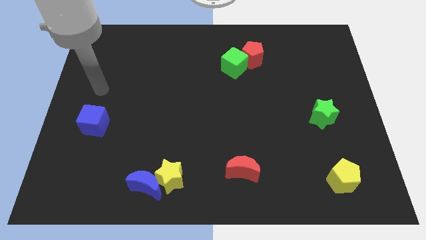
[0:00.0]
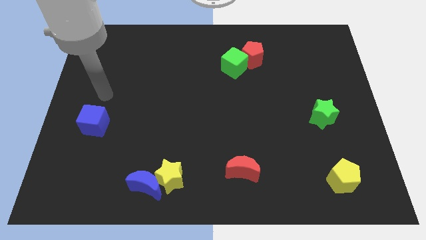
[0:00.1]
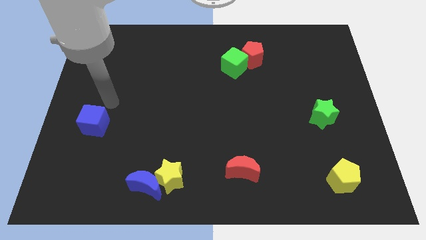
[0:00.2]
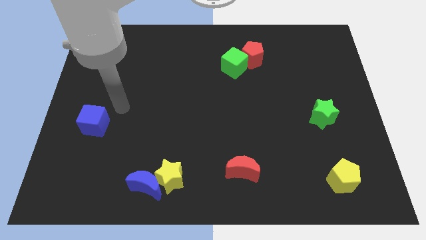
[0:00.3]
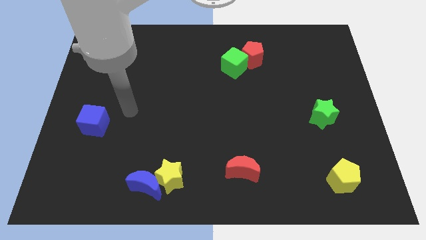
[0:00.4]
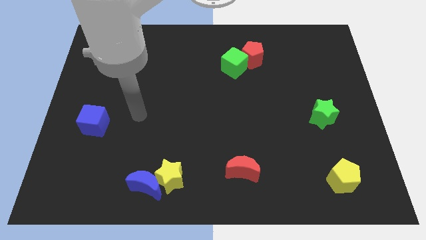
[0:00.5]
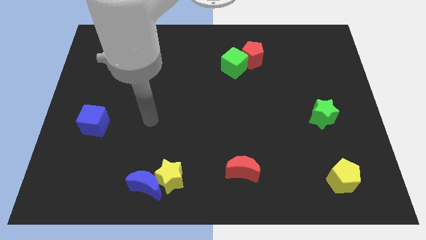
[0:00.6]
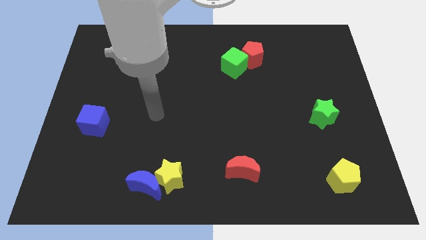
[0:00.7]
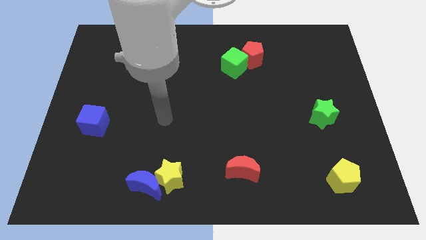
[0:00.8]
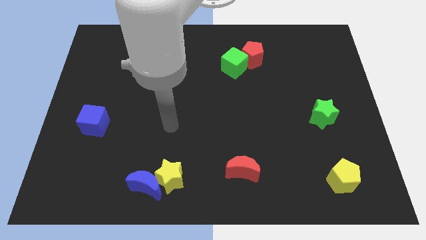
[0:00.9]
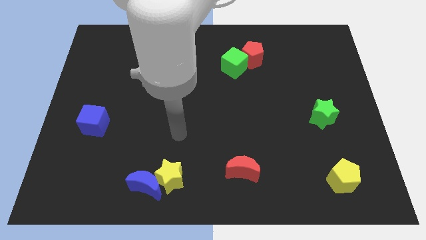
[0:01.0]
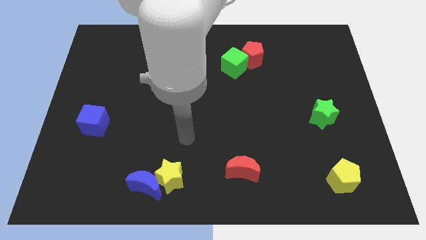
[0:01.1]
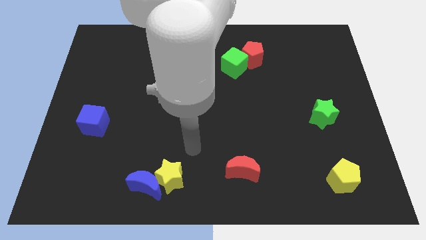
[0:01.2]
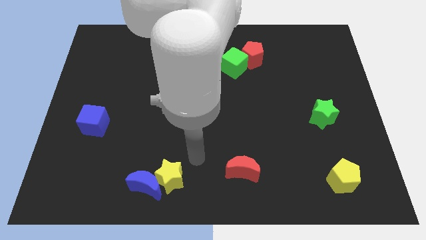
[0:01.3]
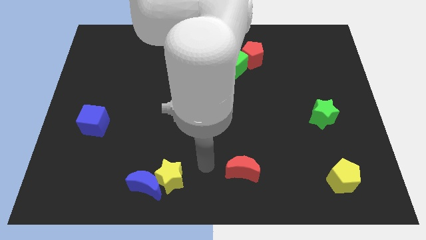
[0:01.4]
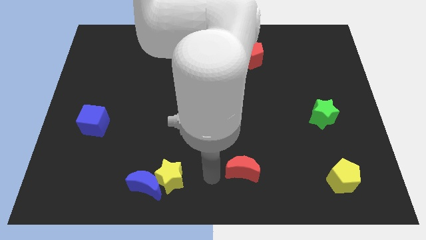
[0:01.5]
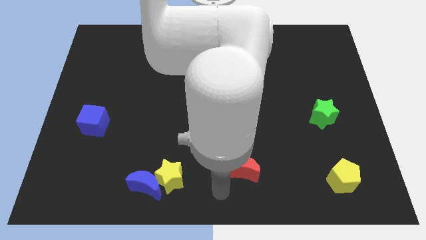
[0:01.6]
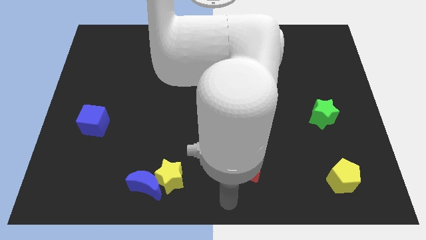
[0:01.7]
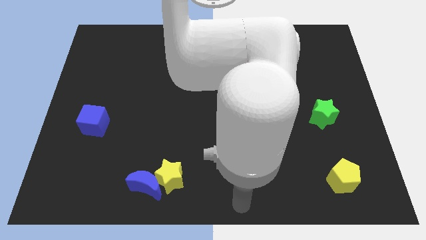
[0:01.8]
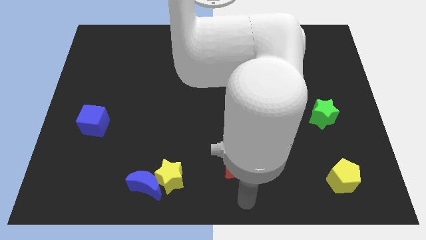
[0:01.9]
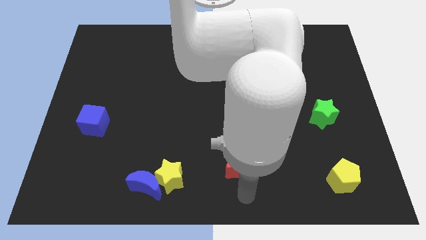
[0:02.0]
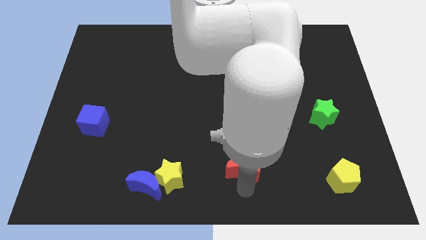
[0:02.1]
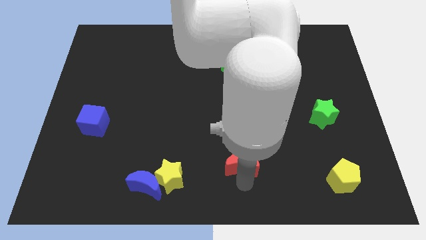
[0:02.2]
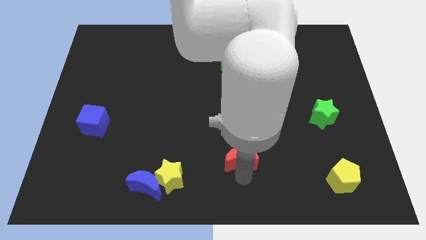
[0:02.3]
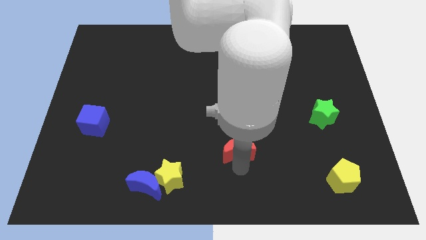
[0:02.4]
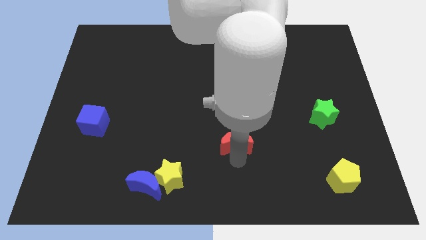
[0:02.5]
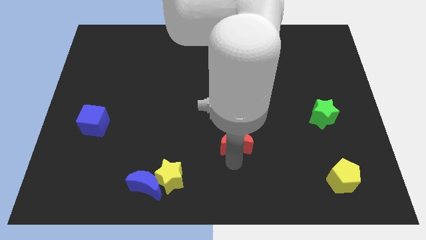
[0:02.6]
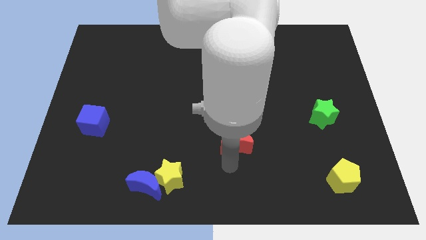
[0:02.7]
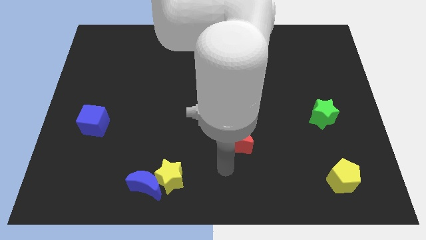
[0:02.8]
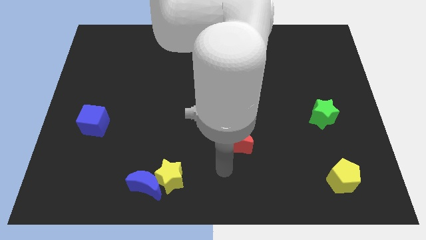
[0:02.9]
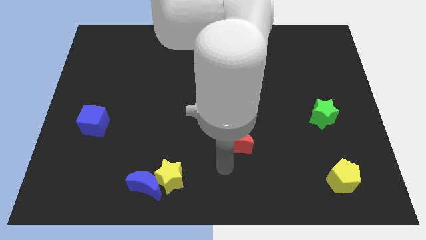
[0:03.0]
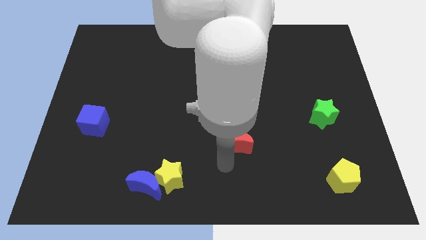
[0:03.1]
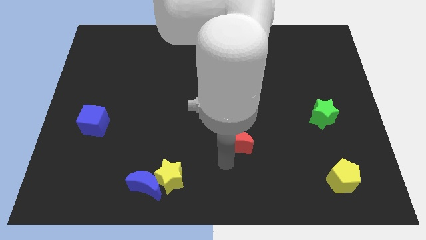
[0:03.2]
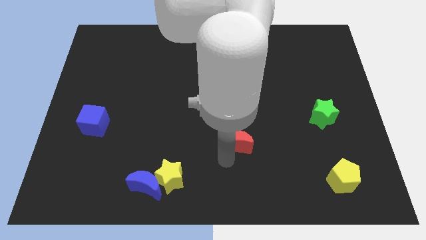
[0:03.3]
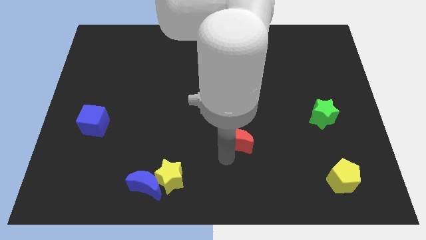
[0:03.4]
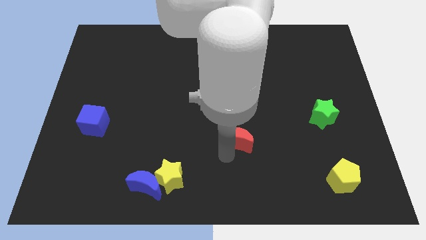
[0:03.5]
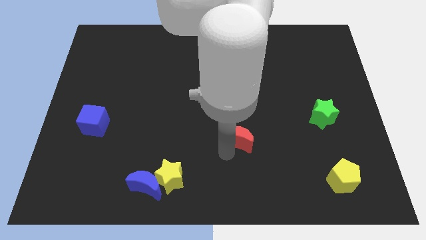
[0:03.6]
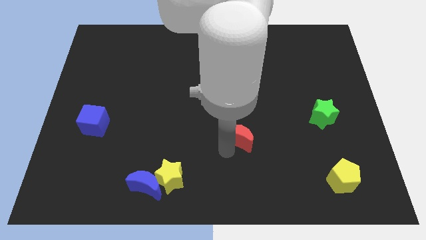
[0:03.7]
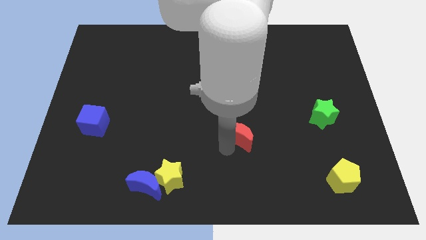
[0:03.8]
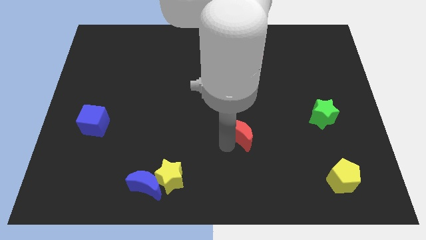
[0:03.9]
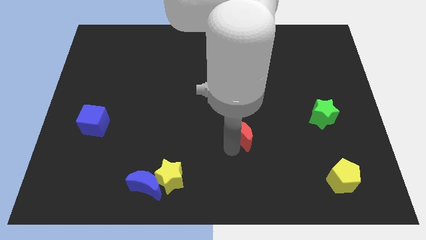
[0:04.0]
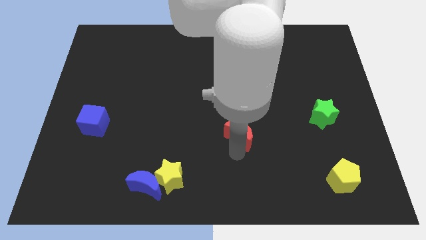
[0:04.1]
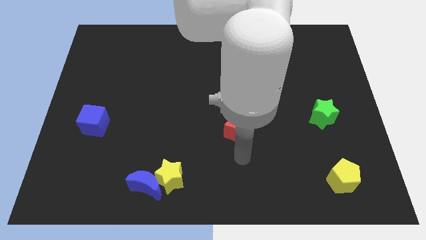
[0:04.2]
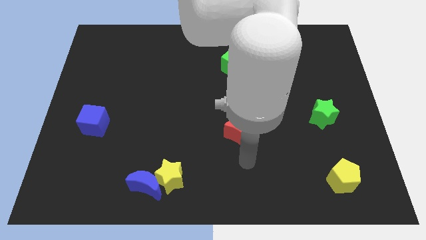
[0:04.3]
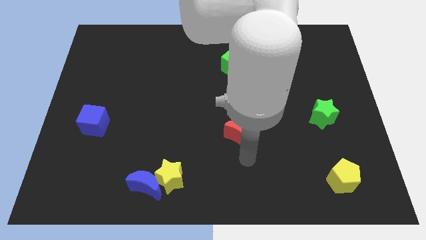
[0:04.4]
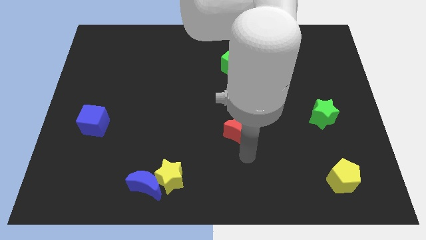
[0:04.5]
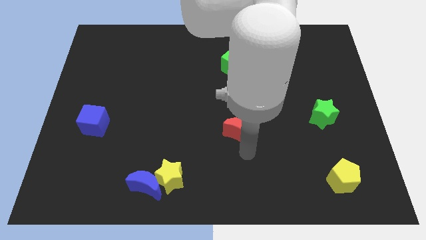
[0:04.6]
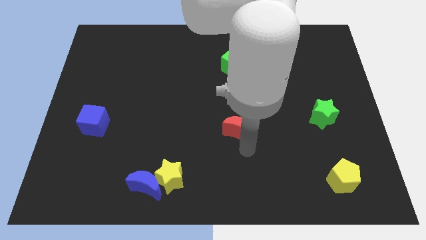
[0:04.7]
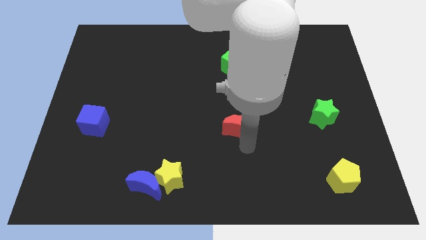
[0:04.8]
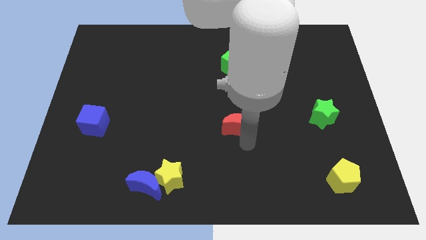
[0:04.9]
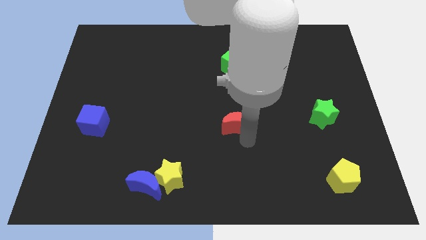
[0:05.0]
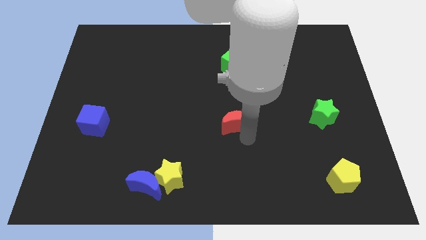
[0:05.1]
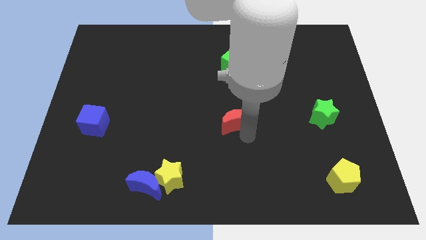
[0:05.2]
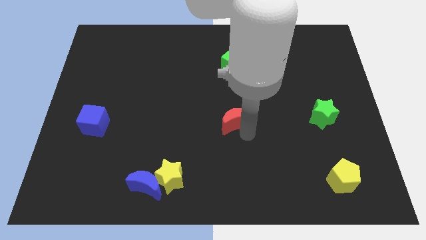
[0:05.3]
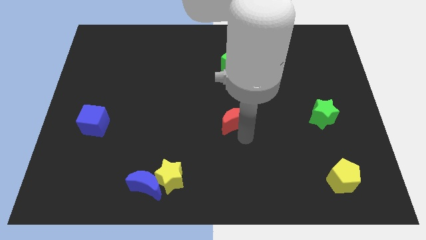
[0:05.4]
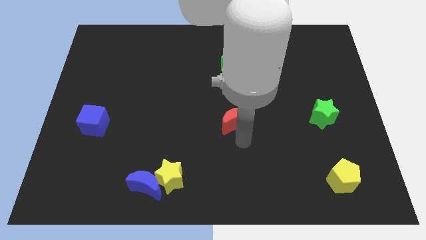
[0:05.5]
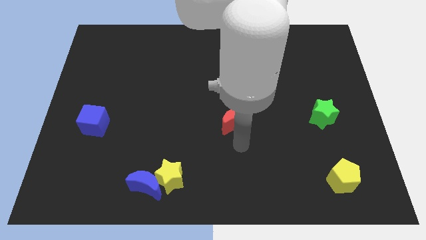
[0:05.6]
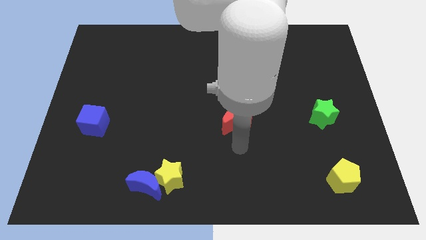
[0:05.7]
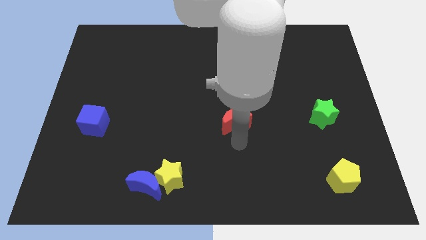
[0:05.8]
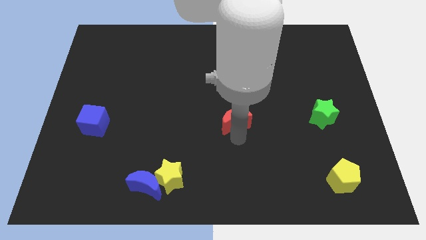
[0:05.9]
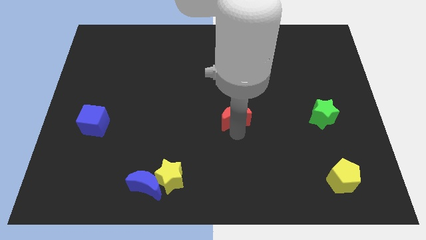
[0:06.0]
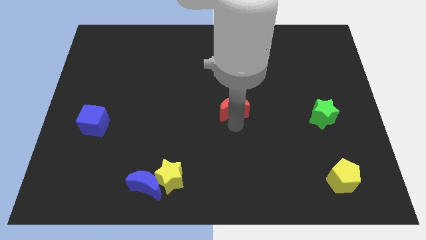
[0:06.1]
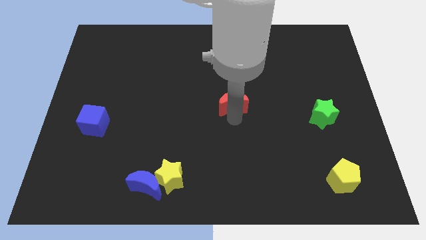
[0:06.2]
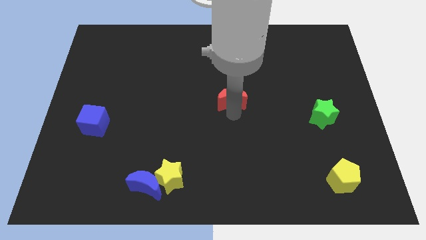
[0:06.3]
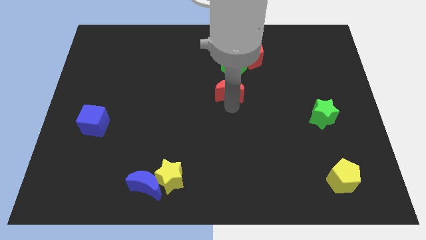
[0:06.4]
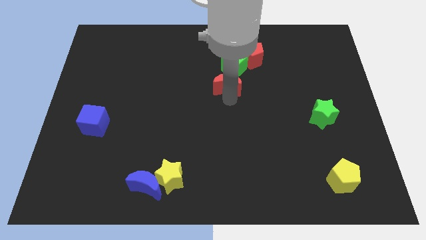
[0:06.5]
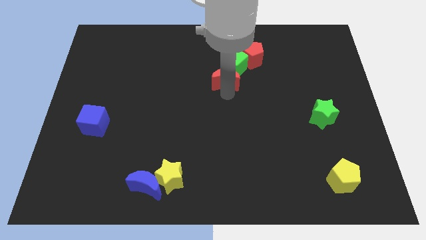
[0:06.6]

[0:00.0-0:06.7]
move the red moon to the green cube
